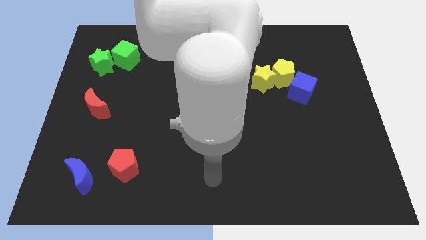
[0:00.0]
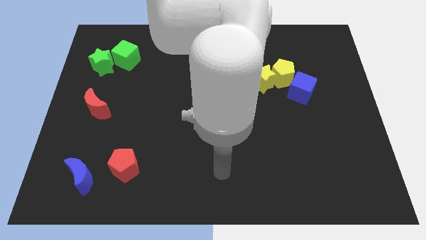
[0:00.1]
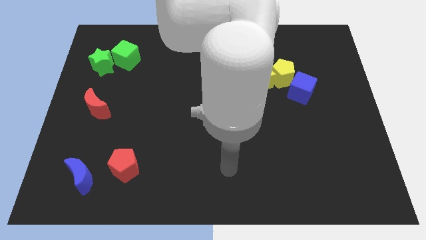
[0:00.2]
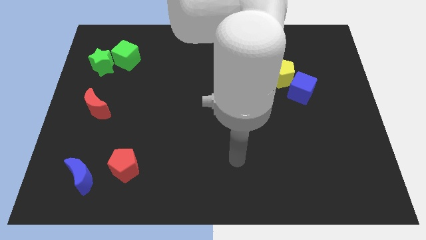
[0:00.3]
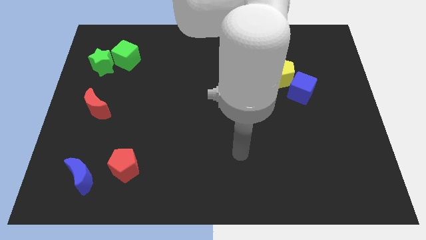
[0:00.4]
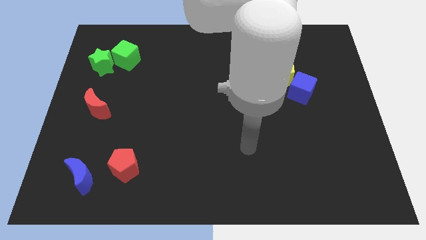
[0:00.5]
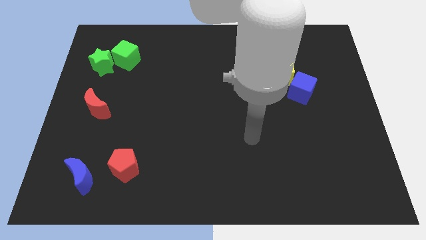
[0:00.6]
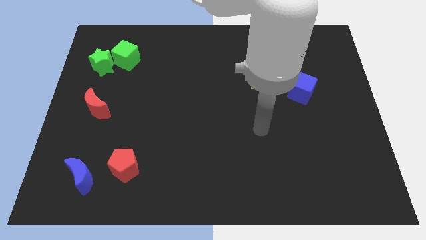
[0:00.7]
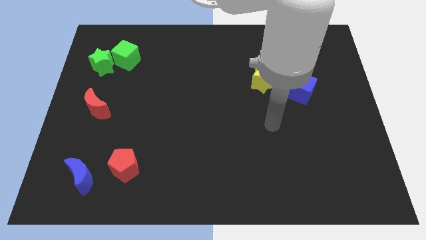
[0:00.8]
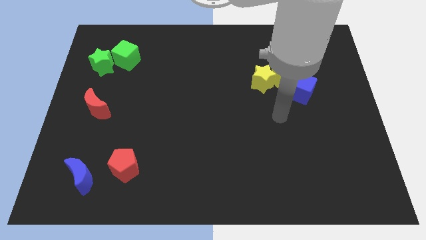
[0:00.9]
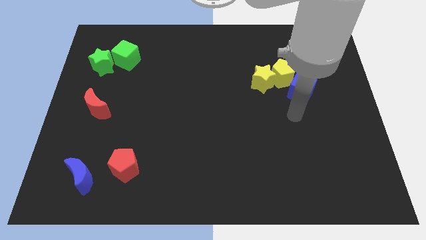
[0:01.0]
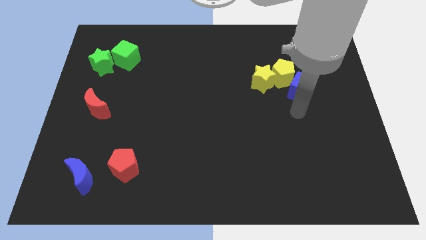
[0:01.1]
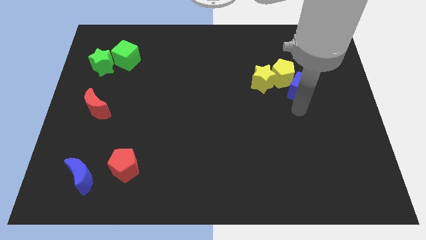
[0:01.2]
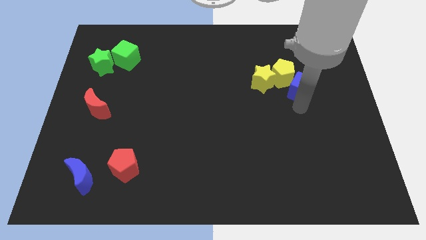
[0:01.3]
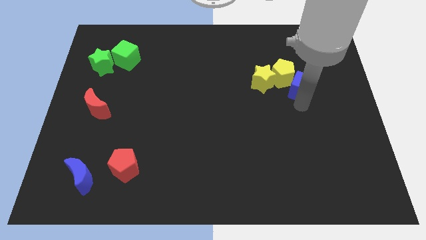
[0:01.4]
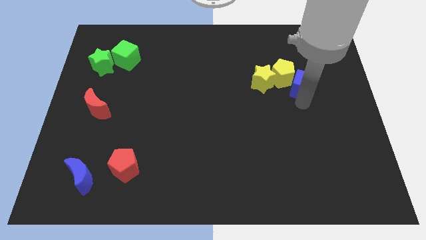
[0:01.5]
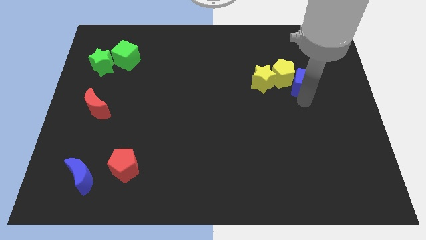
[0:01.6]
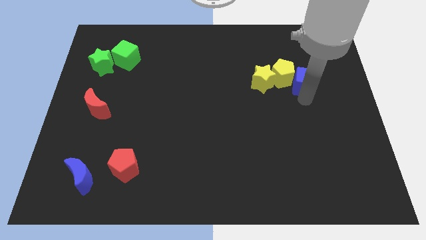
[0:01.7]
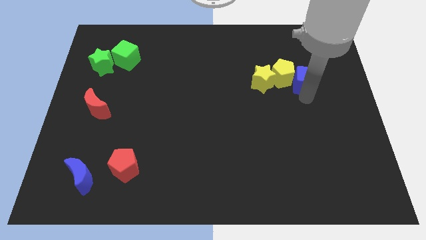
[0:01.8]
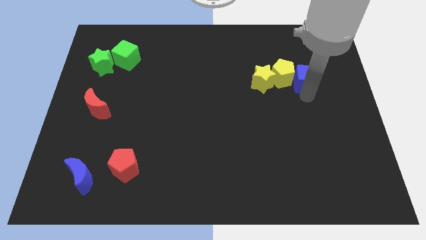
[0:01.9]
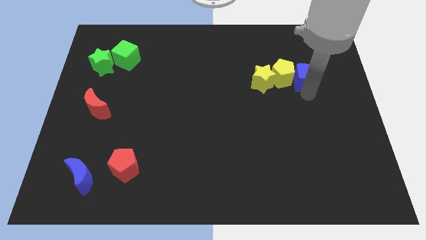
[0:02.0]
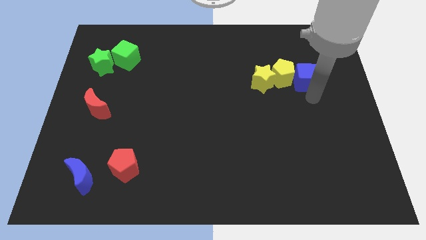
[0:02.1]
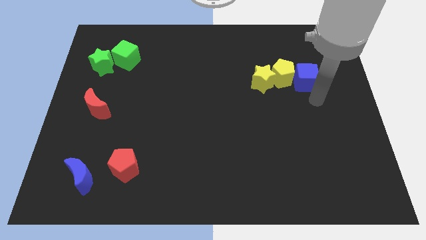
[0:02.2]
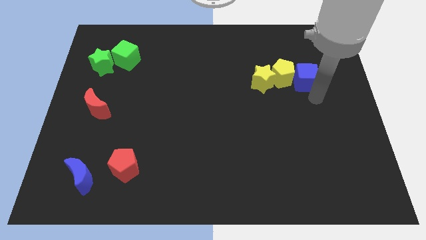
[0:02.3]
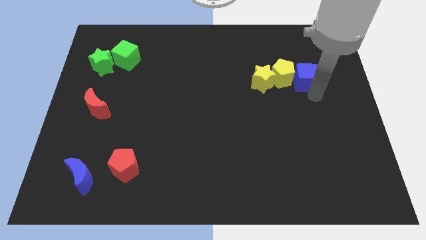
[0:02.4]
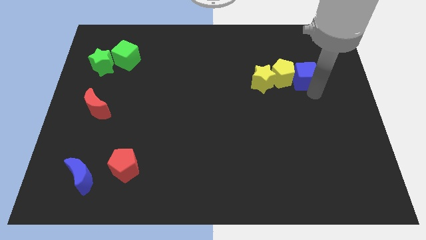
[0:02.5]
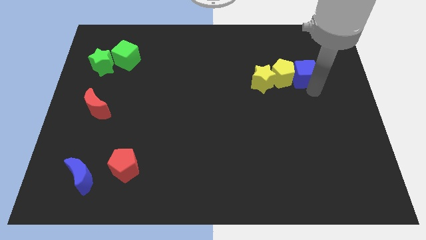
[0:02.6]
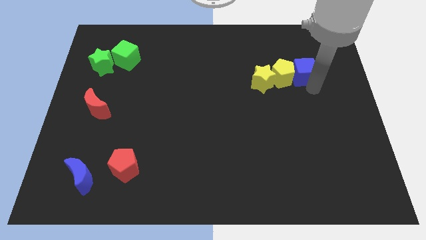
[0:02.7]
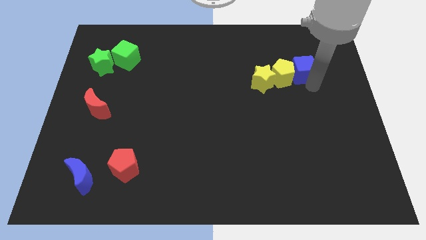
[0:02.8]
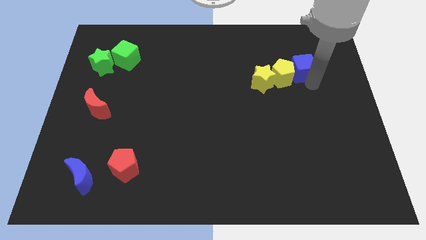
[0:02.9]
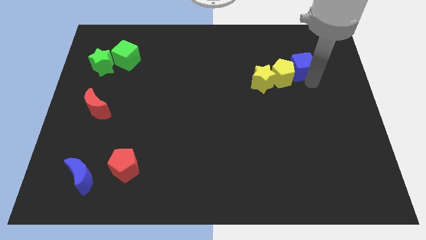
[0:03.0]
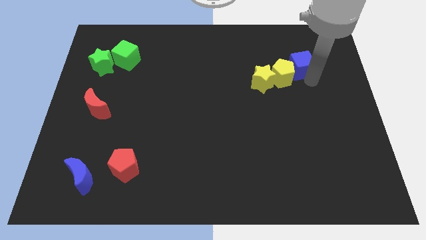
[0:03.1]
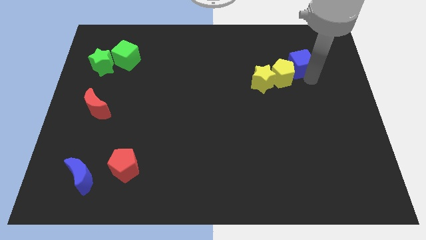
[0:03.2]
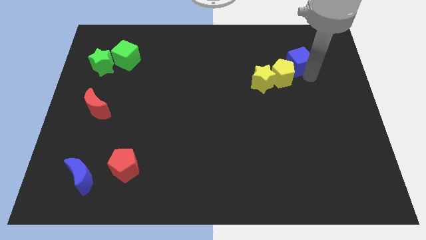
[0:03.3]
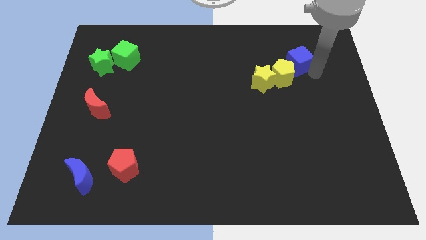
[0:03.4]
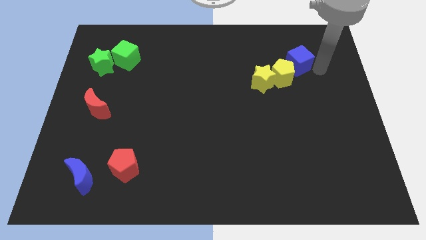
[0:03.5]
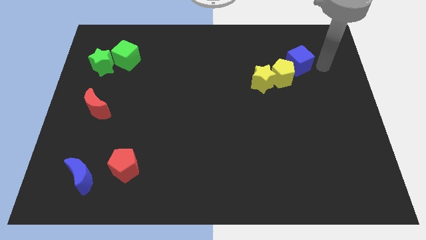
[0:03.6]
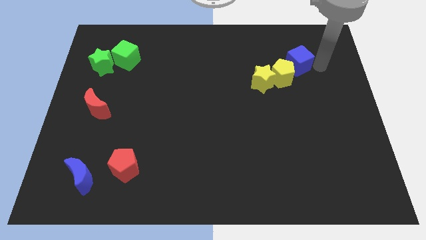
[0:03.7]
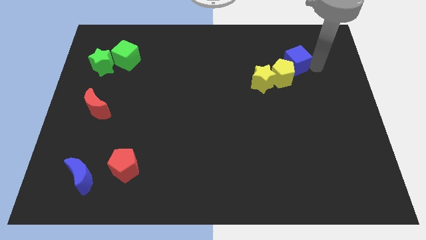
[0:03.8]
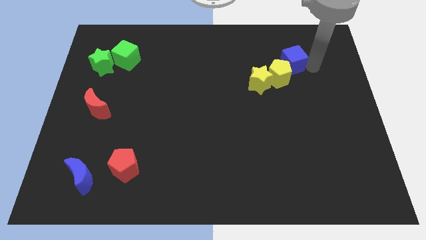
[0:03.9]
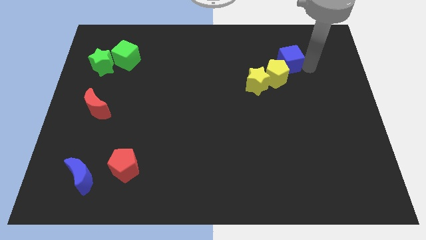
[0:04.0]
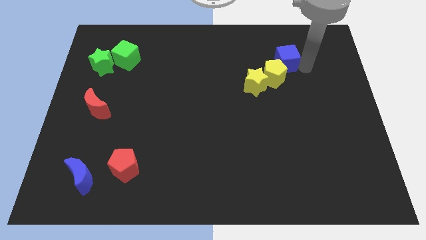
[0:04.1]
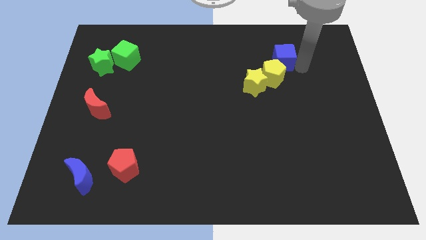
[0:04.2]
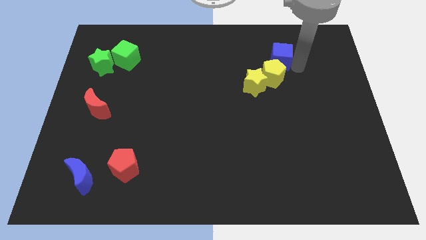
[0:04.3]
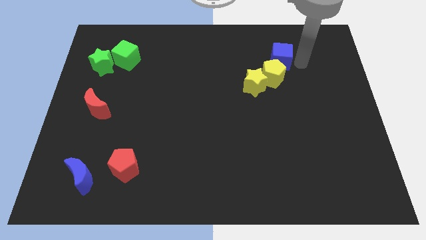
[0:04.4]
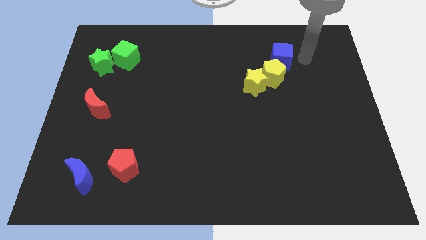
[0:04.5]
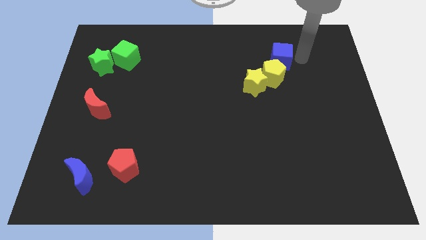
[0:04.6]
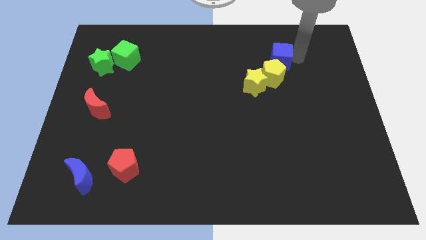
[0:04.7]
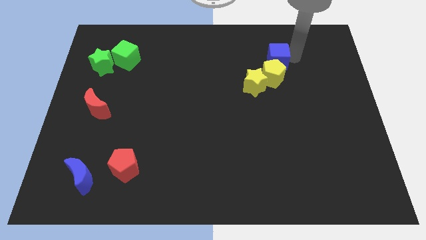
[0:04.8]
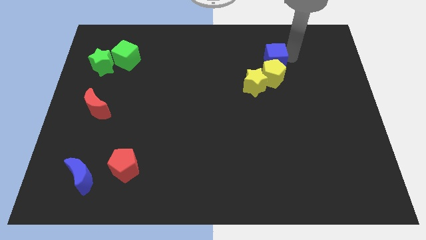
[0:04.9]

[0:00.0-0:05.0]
move the blue cube diagonally up and to the left of the yellow pentagon

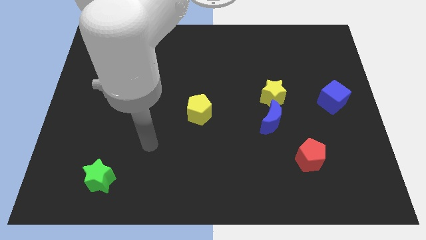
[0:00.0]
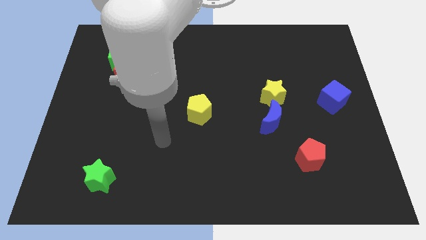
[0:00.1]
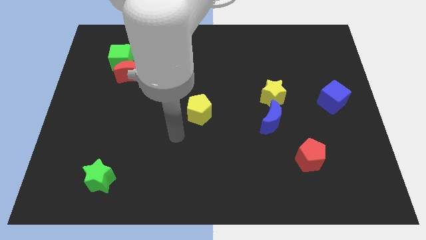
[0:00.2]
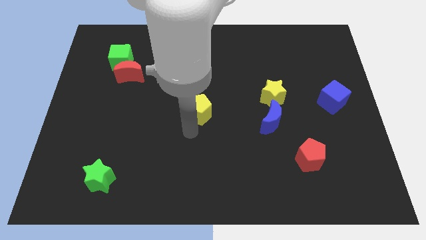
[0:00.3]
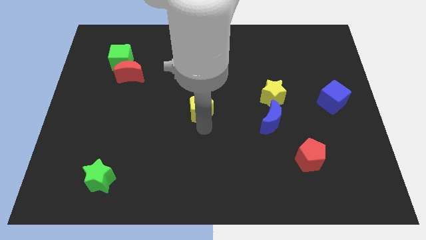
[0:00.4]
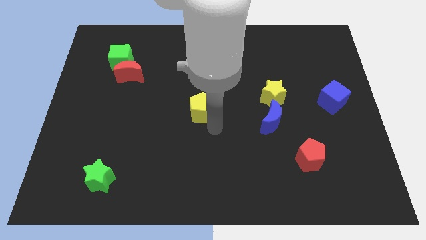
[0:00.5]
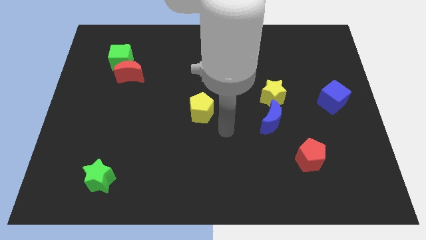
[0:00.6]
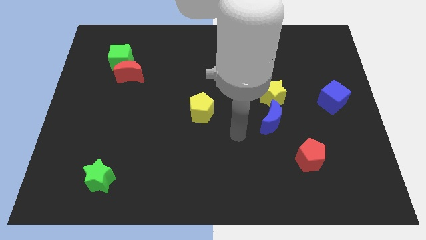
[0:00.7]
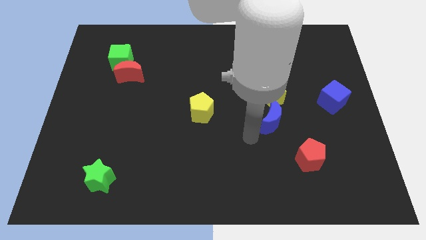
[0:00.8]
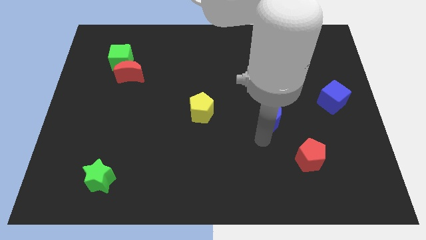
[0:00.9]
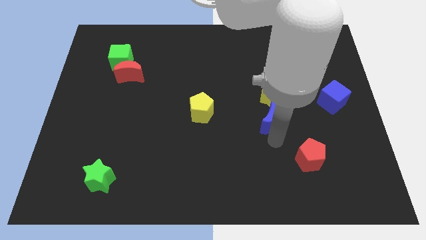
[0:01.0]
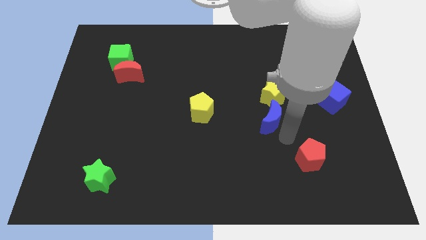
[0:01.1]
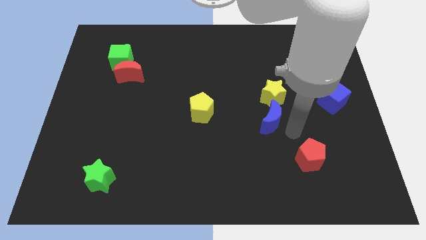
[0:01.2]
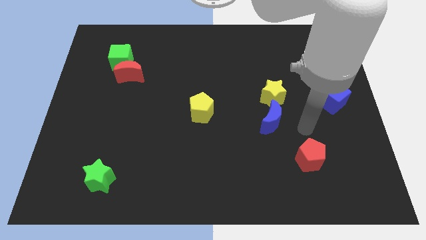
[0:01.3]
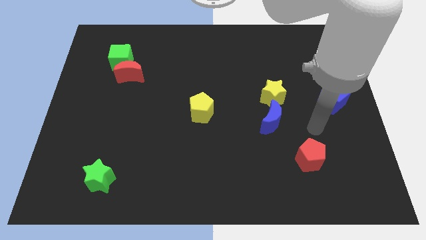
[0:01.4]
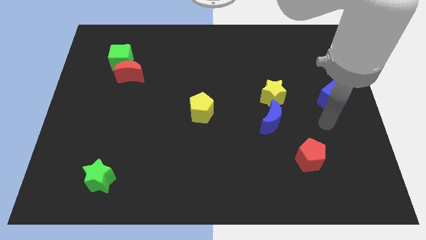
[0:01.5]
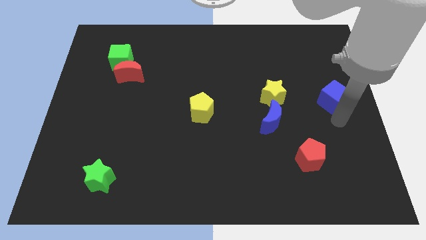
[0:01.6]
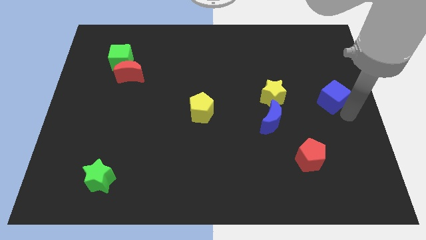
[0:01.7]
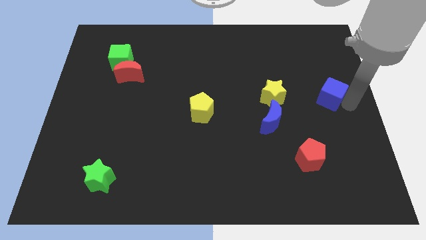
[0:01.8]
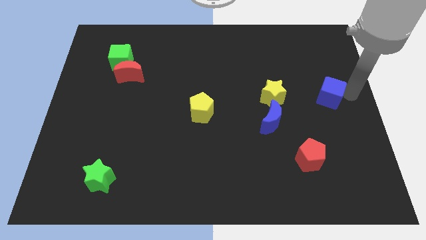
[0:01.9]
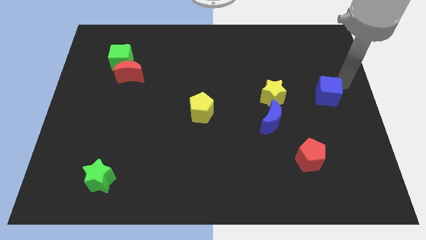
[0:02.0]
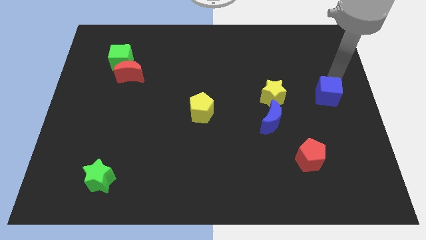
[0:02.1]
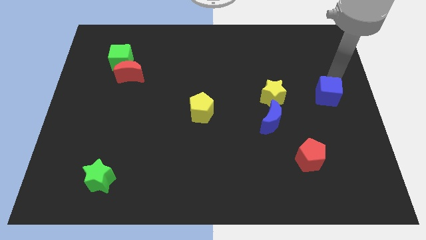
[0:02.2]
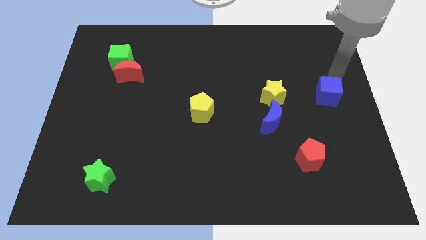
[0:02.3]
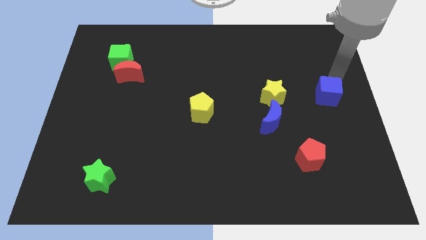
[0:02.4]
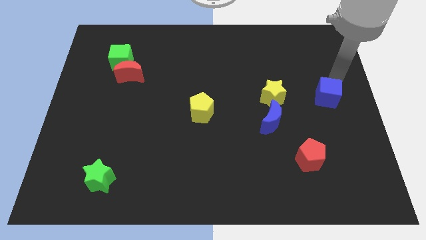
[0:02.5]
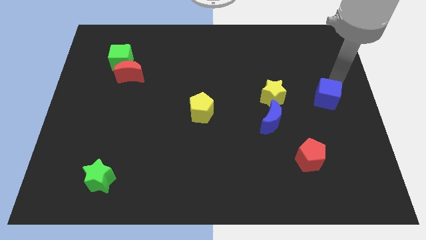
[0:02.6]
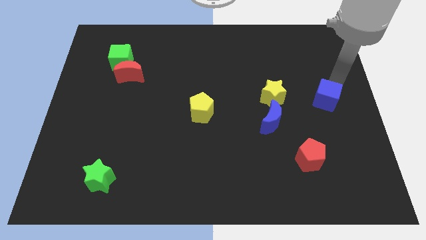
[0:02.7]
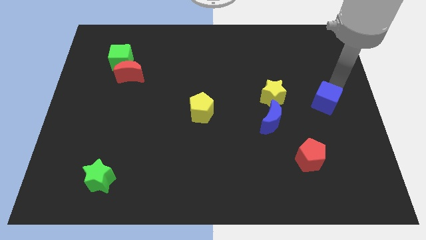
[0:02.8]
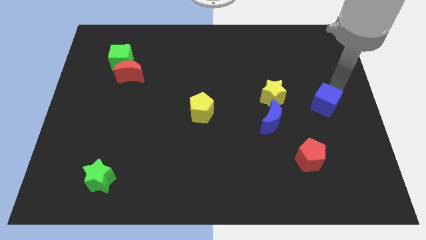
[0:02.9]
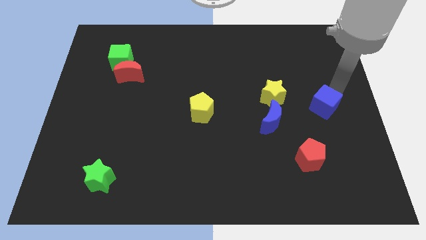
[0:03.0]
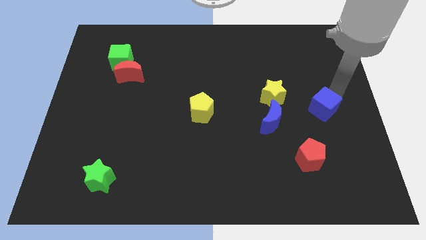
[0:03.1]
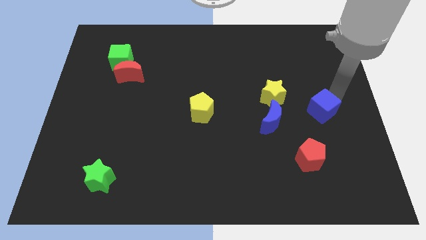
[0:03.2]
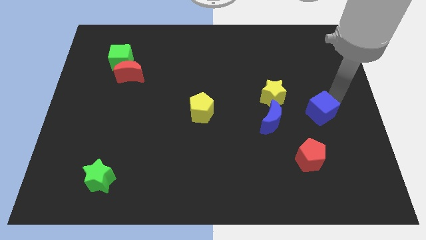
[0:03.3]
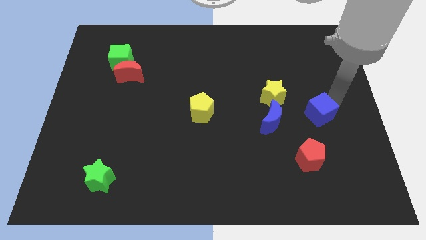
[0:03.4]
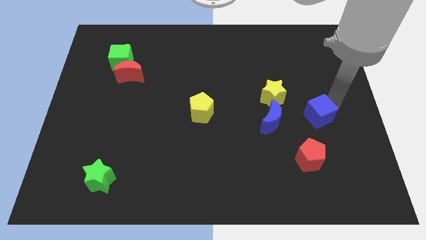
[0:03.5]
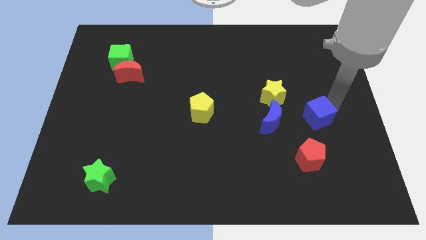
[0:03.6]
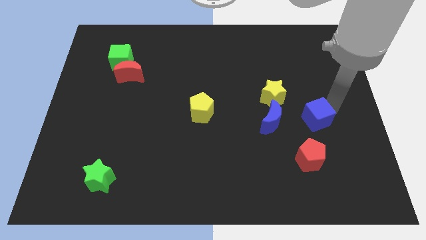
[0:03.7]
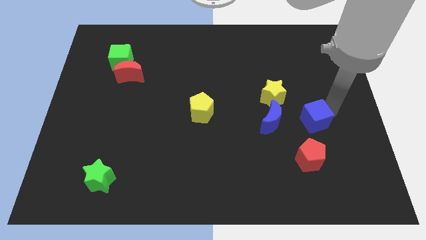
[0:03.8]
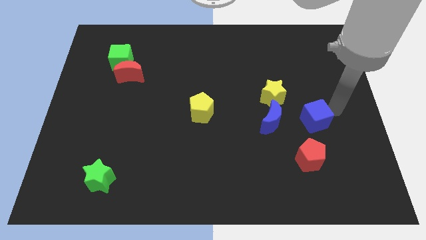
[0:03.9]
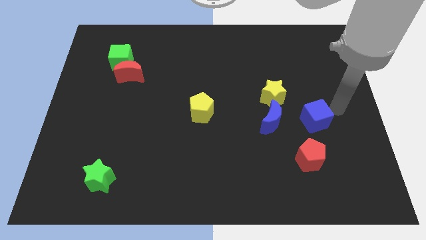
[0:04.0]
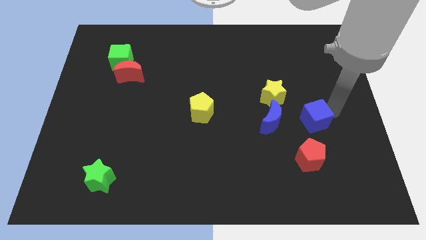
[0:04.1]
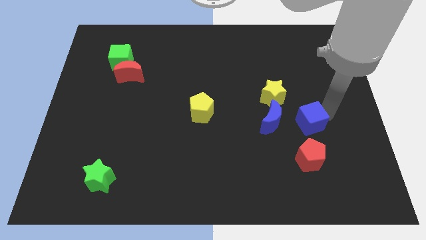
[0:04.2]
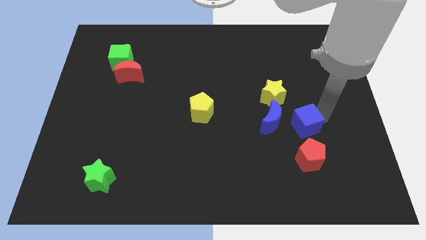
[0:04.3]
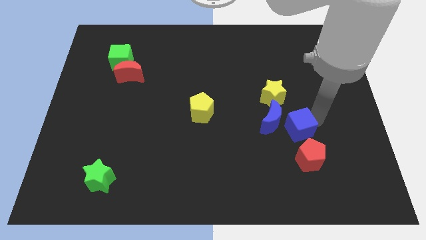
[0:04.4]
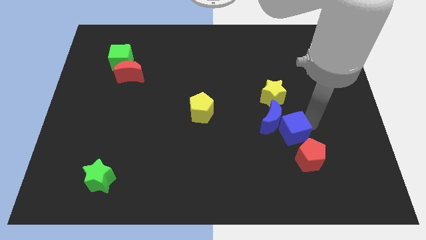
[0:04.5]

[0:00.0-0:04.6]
move the blue cube below the yellow star
